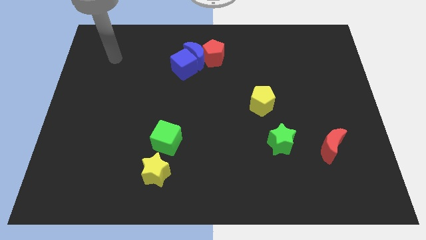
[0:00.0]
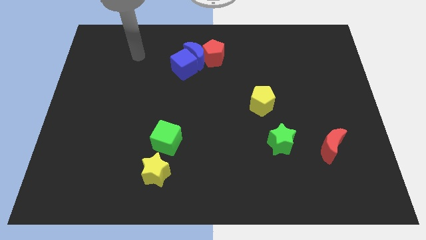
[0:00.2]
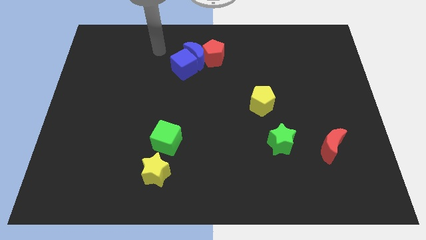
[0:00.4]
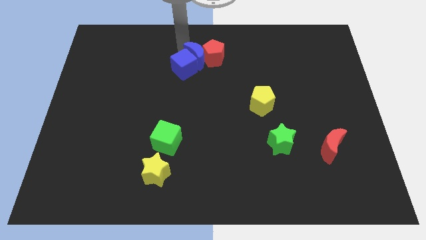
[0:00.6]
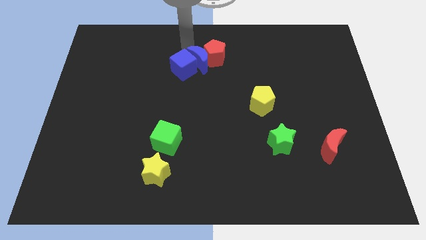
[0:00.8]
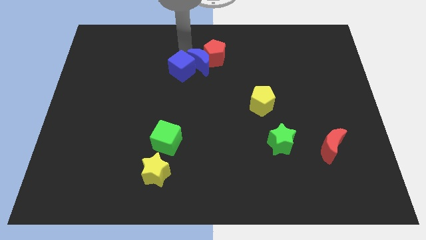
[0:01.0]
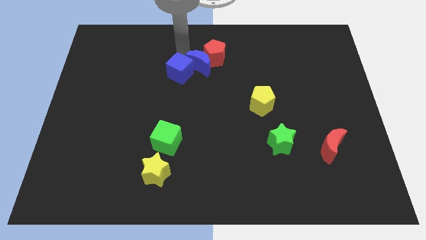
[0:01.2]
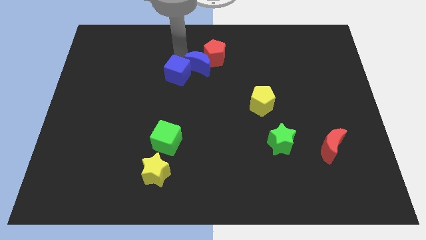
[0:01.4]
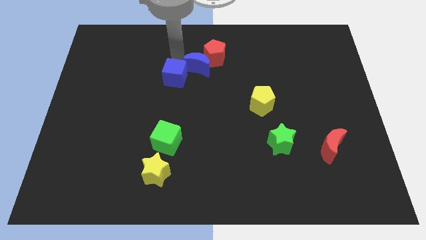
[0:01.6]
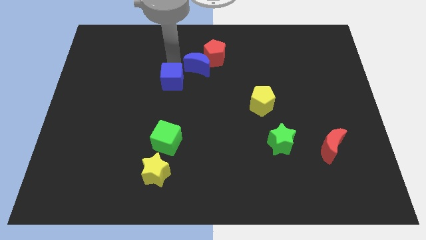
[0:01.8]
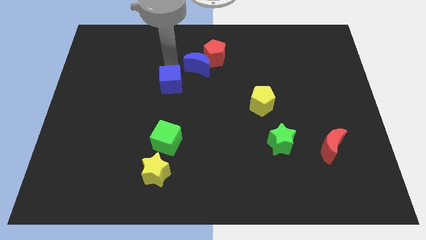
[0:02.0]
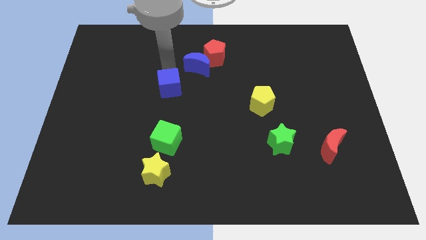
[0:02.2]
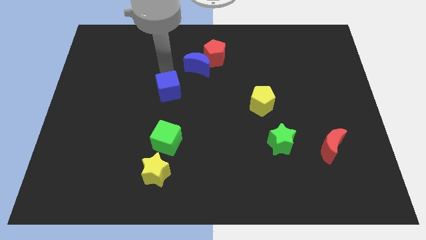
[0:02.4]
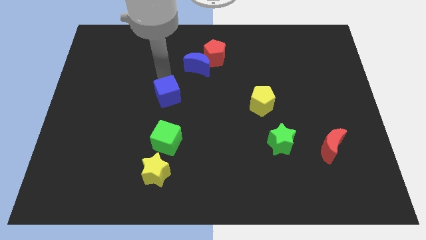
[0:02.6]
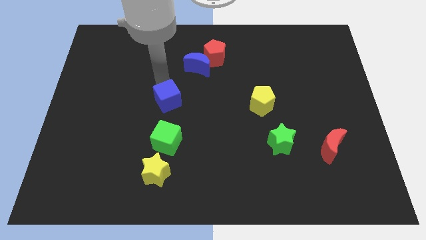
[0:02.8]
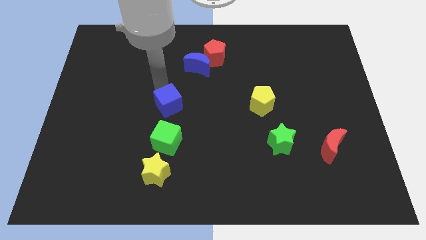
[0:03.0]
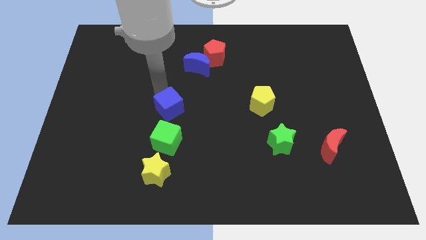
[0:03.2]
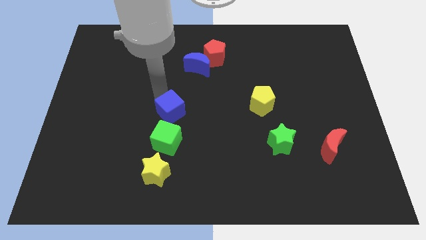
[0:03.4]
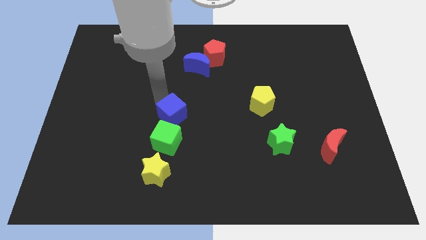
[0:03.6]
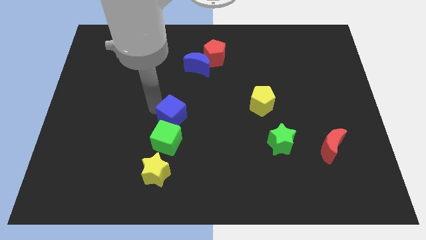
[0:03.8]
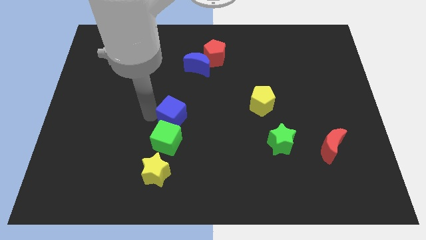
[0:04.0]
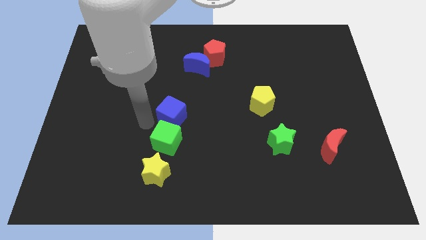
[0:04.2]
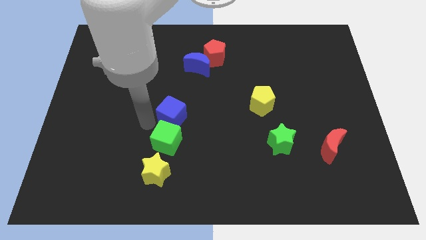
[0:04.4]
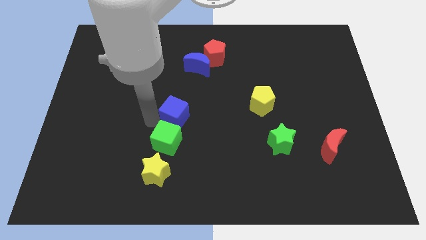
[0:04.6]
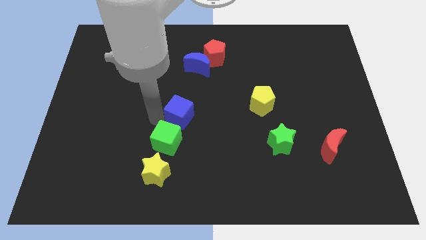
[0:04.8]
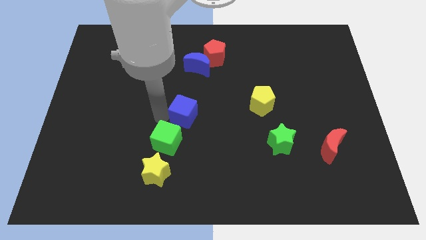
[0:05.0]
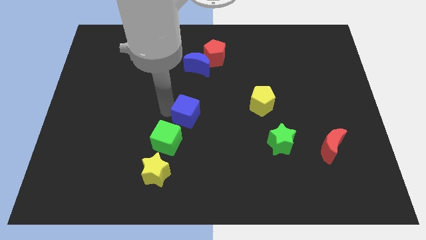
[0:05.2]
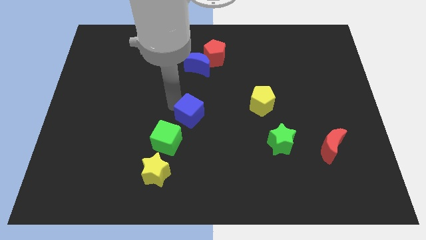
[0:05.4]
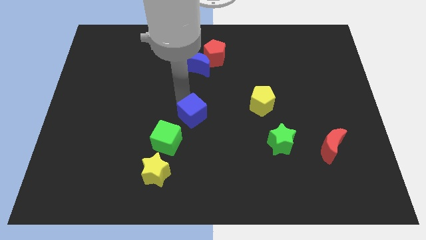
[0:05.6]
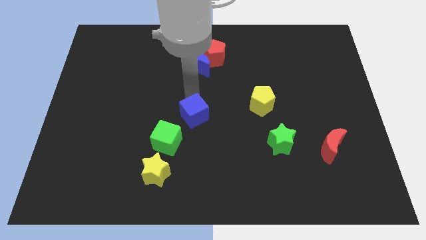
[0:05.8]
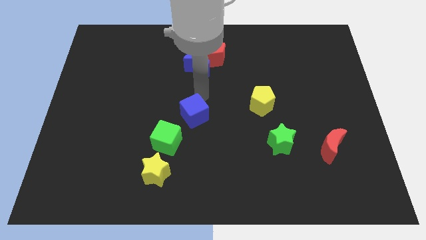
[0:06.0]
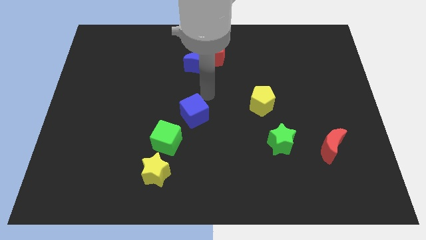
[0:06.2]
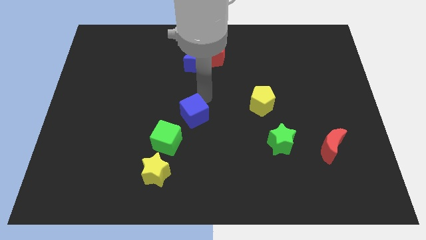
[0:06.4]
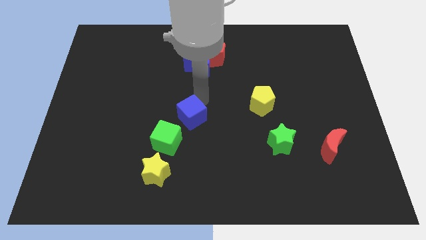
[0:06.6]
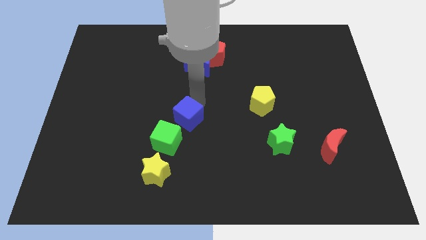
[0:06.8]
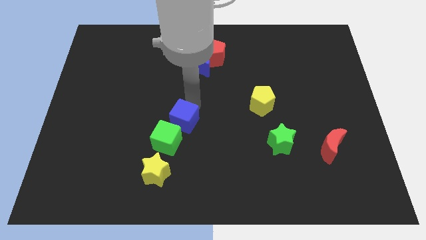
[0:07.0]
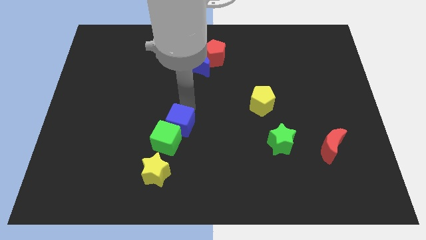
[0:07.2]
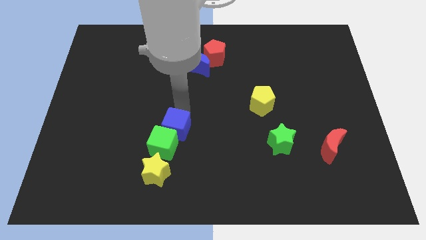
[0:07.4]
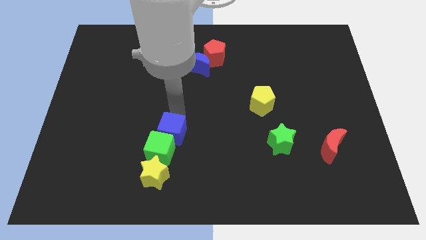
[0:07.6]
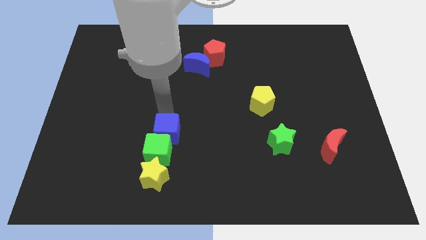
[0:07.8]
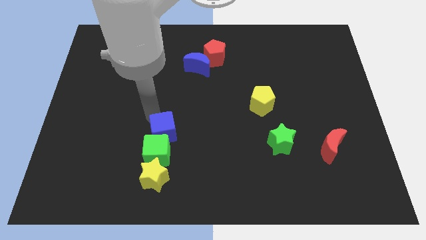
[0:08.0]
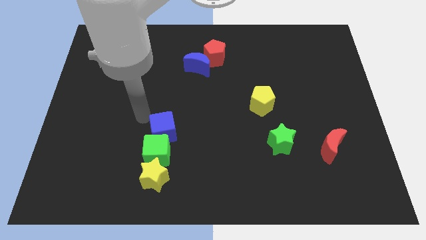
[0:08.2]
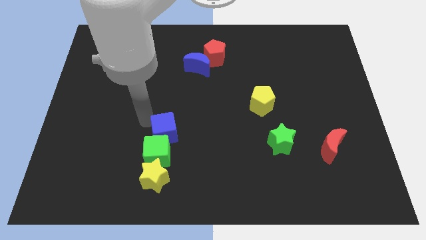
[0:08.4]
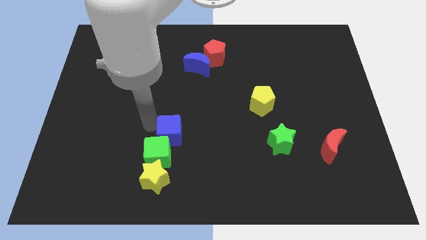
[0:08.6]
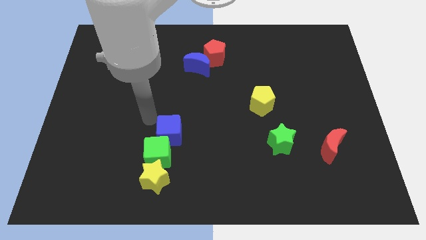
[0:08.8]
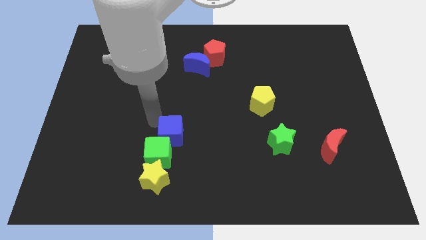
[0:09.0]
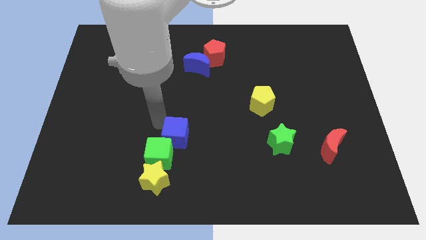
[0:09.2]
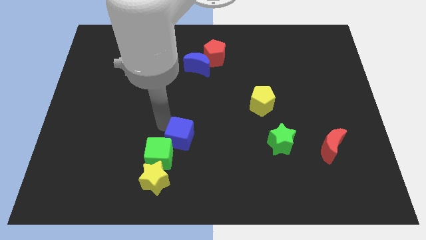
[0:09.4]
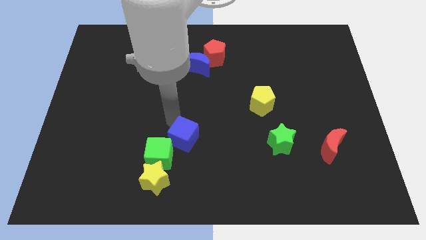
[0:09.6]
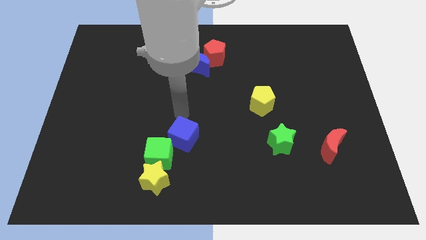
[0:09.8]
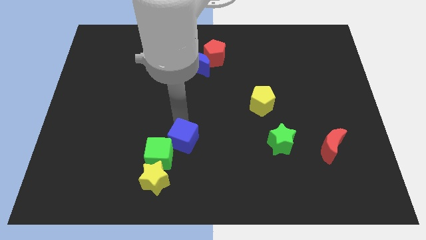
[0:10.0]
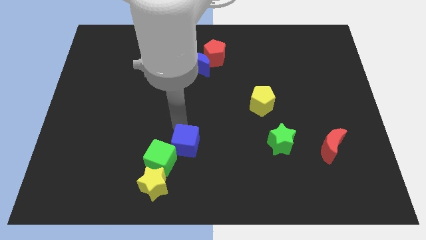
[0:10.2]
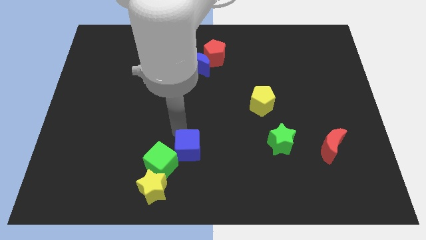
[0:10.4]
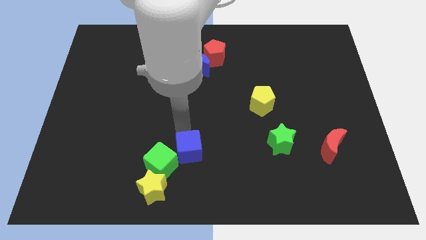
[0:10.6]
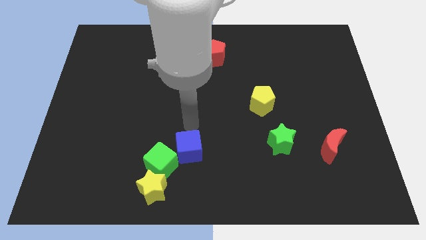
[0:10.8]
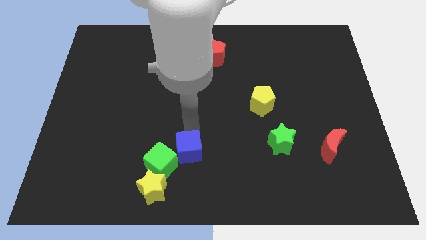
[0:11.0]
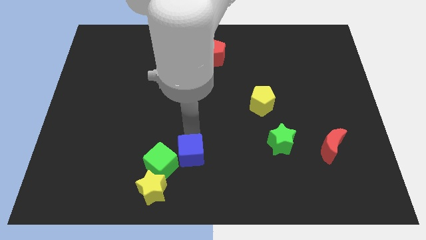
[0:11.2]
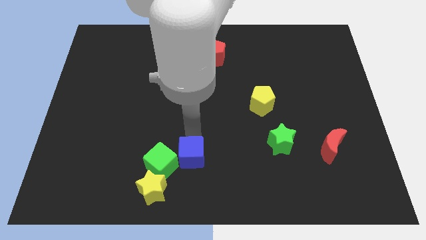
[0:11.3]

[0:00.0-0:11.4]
put the blue cube to the bottom

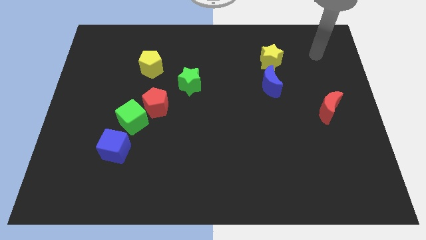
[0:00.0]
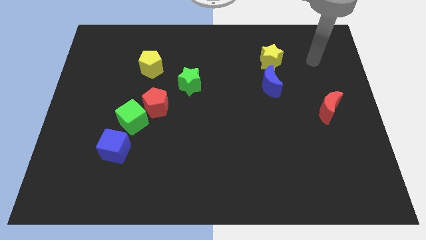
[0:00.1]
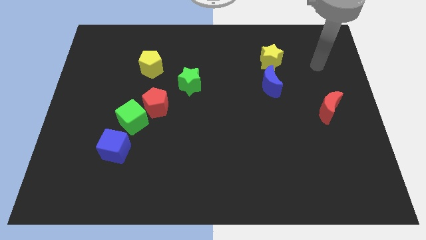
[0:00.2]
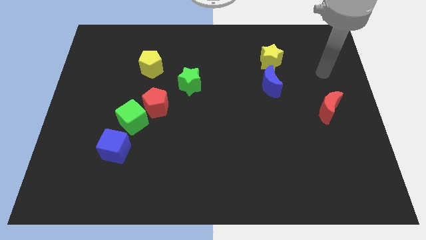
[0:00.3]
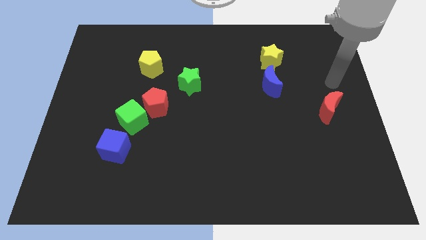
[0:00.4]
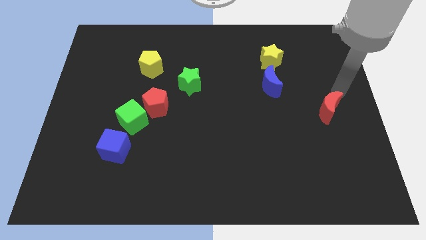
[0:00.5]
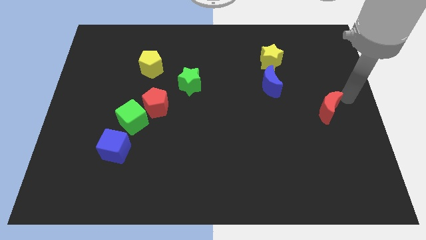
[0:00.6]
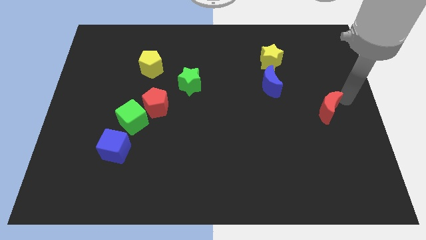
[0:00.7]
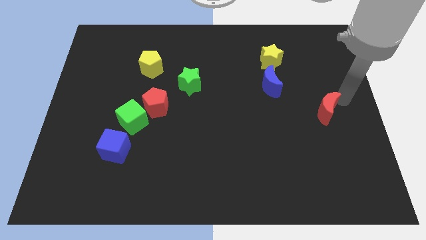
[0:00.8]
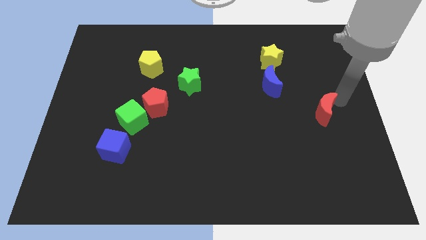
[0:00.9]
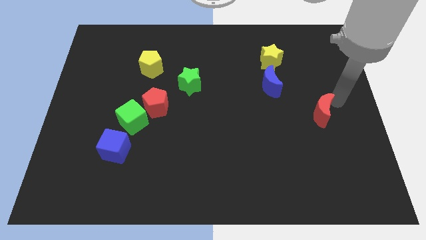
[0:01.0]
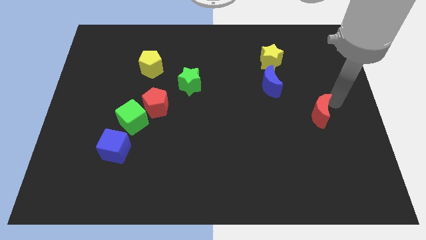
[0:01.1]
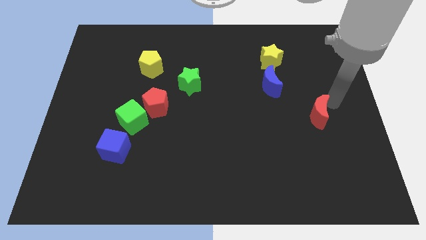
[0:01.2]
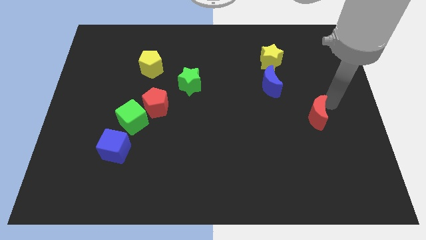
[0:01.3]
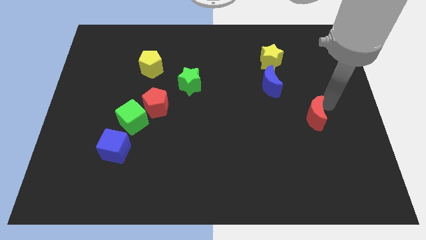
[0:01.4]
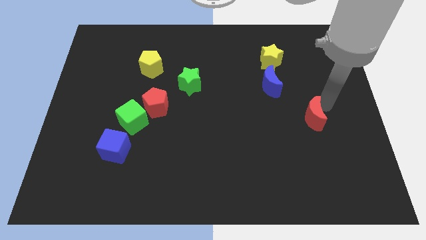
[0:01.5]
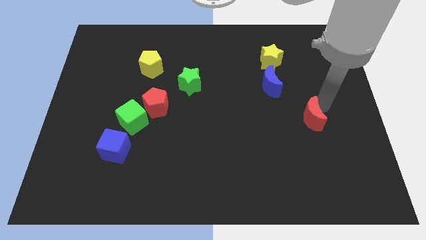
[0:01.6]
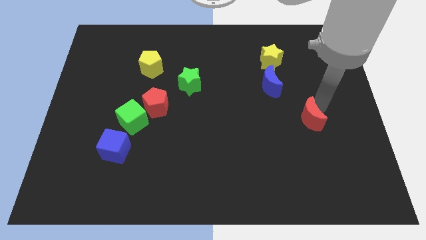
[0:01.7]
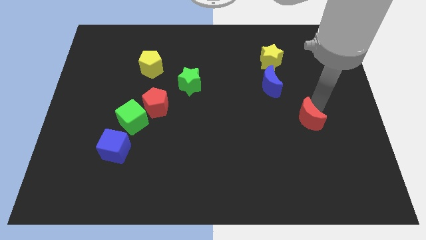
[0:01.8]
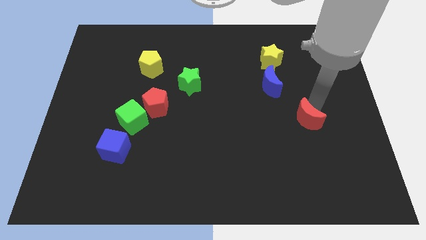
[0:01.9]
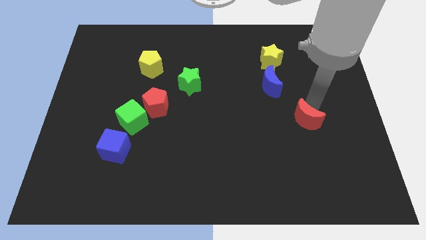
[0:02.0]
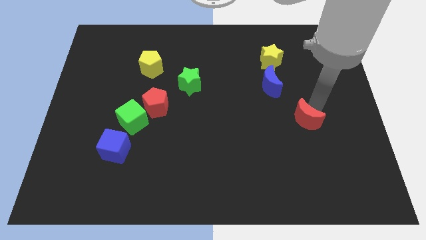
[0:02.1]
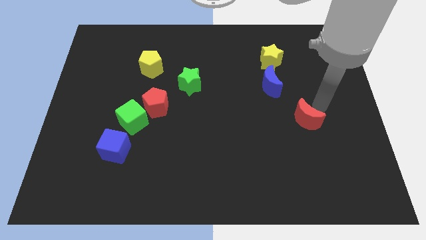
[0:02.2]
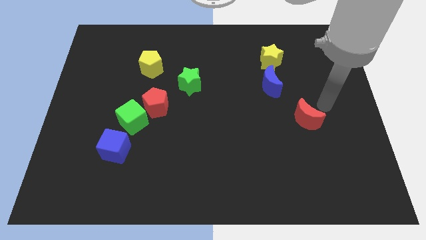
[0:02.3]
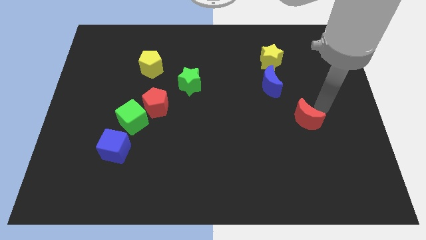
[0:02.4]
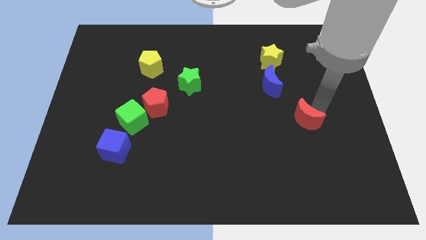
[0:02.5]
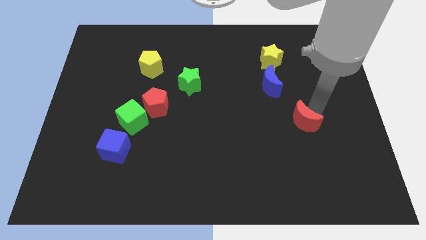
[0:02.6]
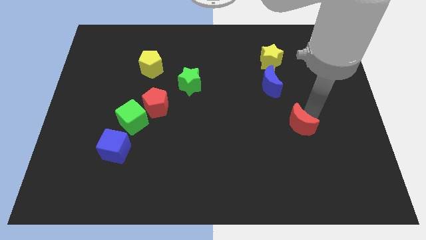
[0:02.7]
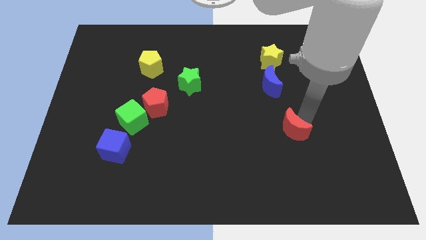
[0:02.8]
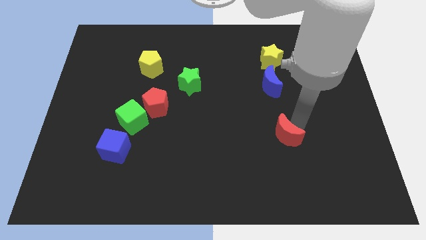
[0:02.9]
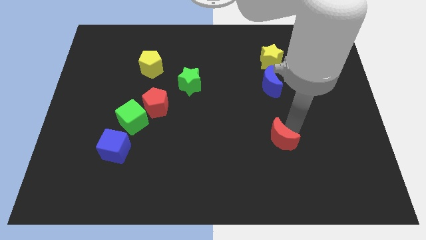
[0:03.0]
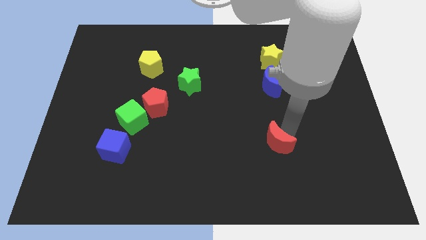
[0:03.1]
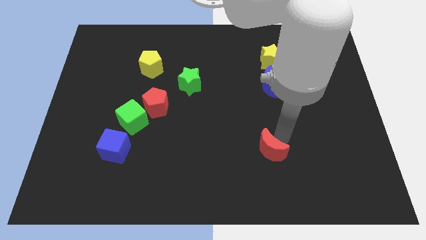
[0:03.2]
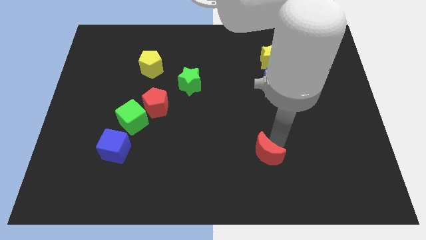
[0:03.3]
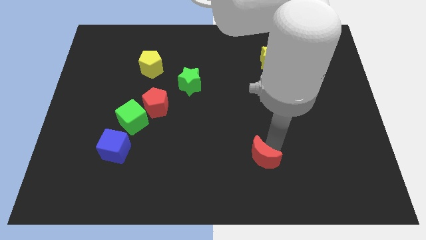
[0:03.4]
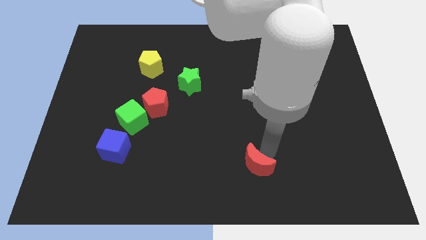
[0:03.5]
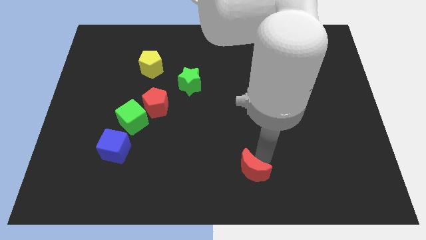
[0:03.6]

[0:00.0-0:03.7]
slide the red moon to the bottom
